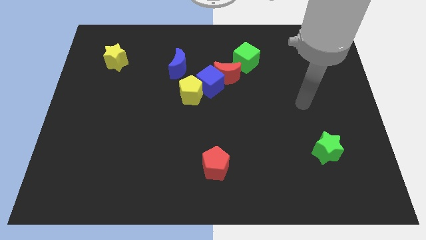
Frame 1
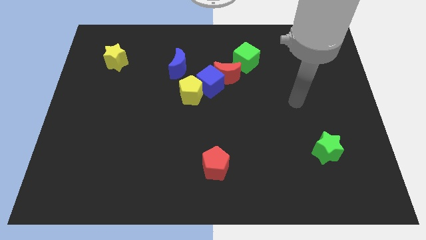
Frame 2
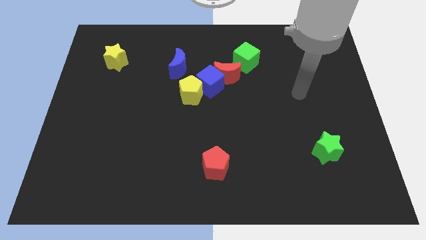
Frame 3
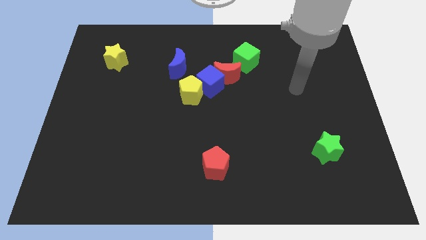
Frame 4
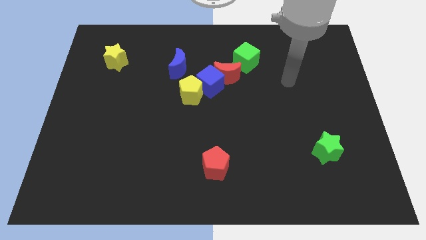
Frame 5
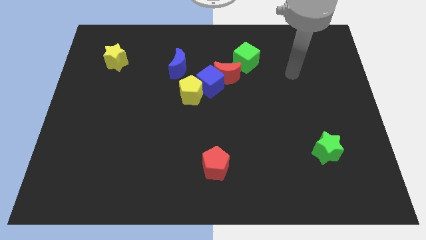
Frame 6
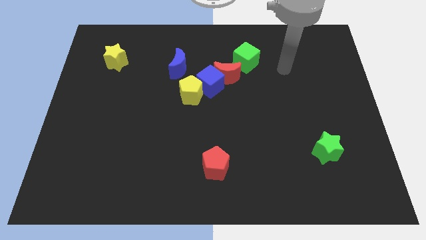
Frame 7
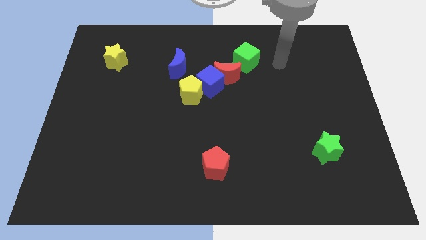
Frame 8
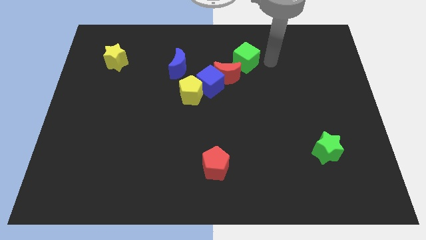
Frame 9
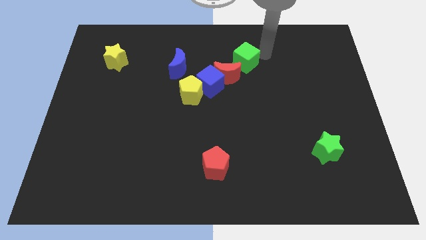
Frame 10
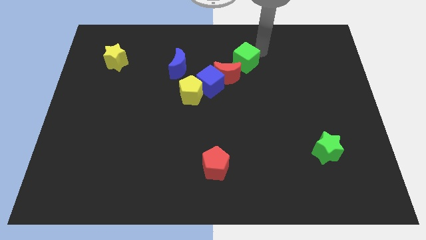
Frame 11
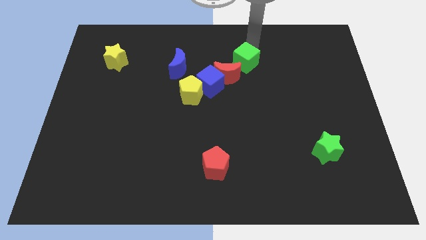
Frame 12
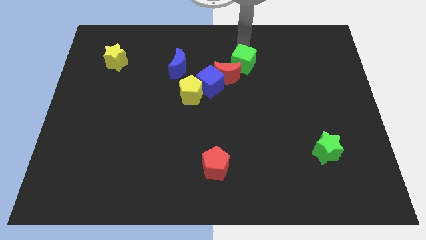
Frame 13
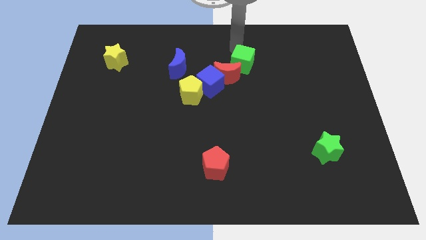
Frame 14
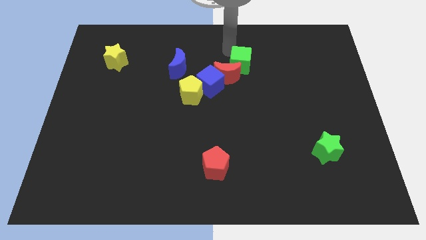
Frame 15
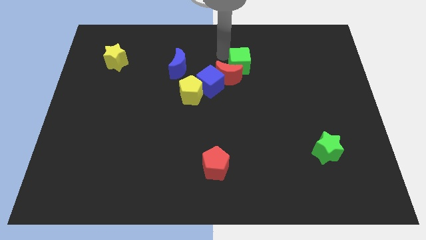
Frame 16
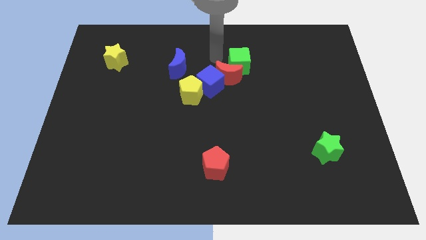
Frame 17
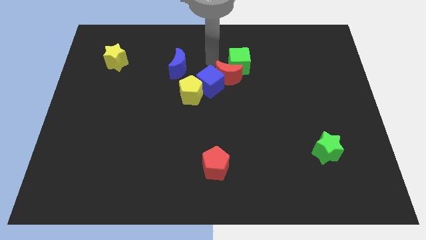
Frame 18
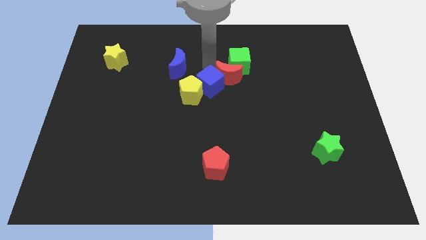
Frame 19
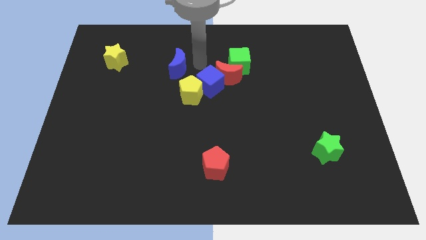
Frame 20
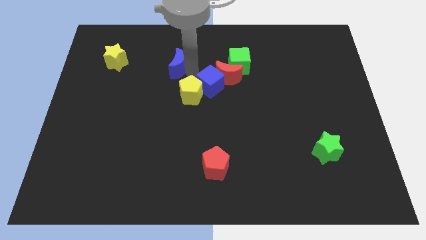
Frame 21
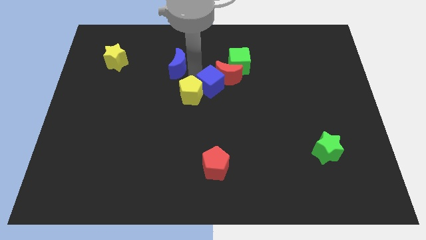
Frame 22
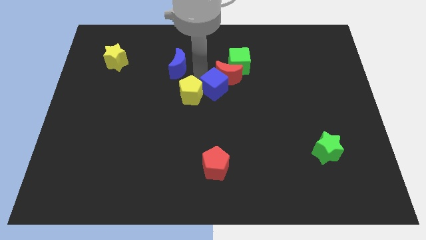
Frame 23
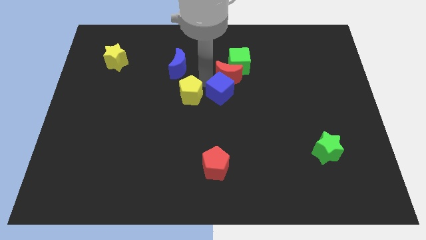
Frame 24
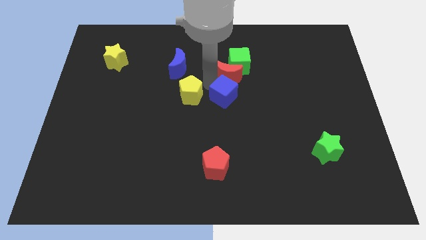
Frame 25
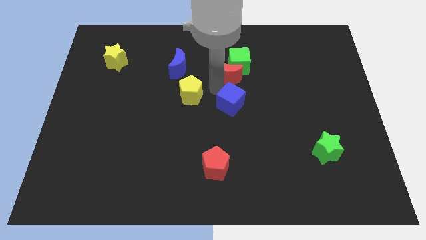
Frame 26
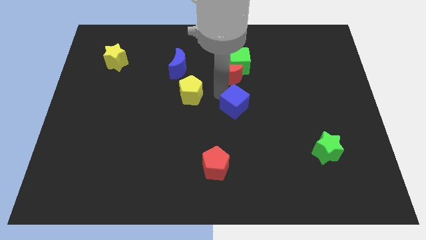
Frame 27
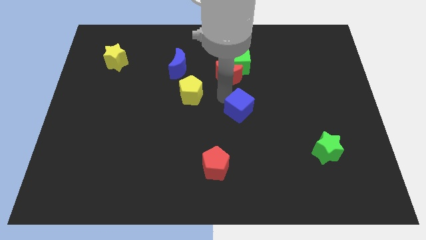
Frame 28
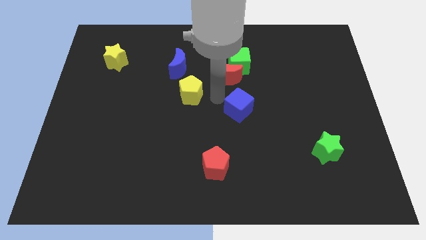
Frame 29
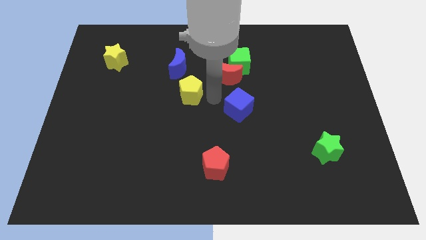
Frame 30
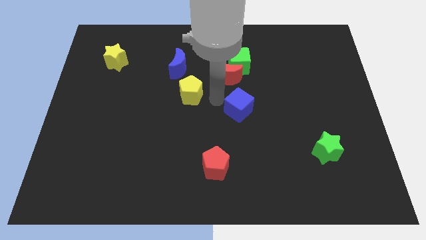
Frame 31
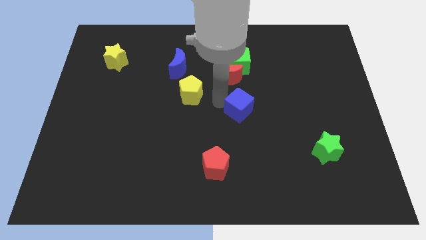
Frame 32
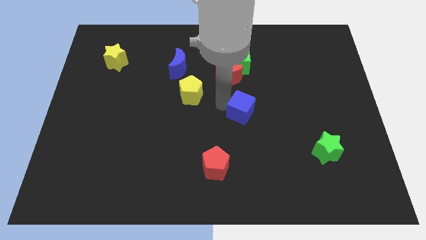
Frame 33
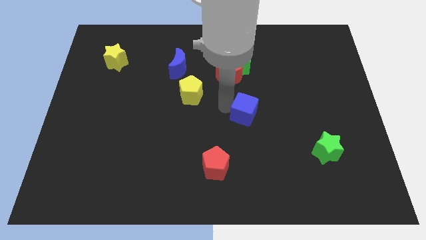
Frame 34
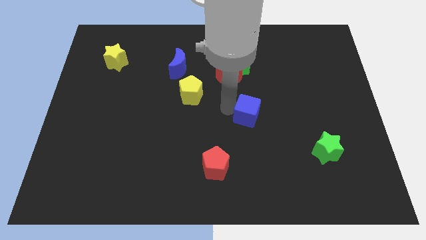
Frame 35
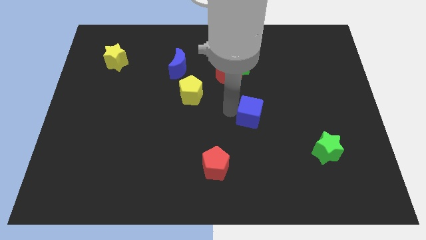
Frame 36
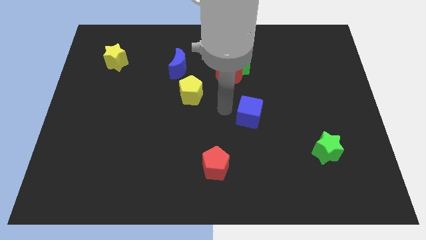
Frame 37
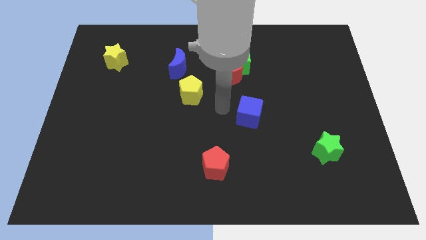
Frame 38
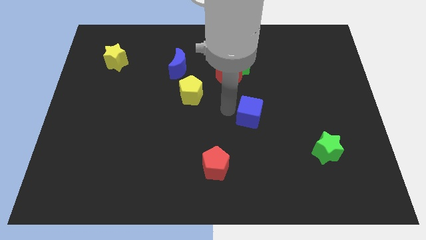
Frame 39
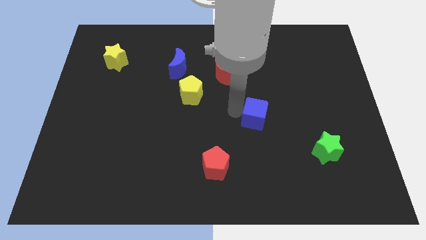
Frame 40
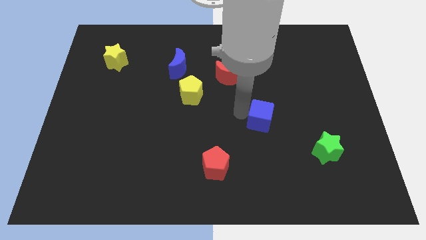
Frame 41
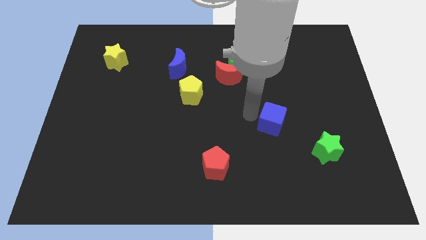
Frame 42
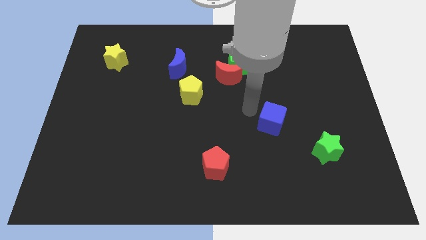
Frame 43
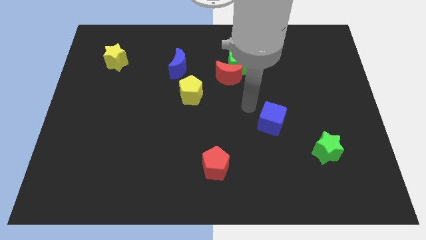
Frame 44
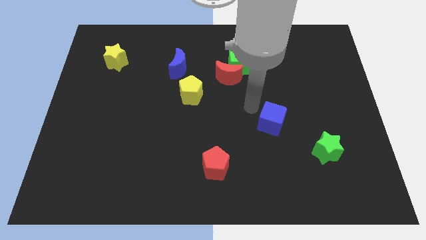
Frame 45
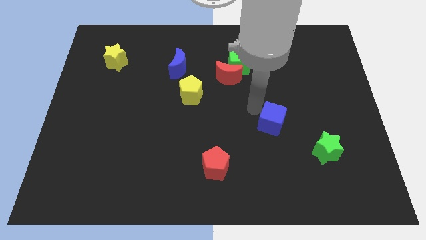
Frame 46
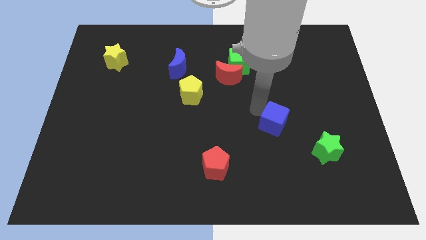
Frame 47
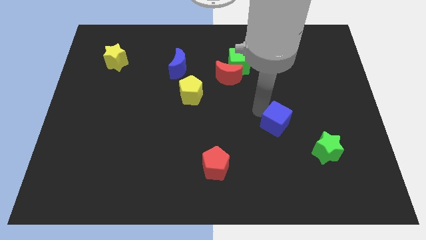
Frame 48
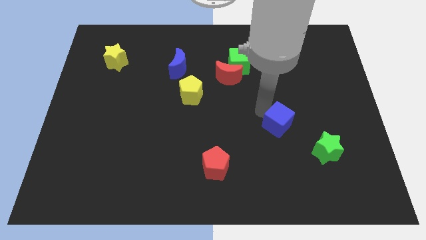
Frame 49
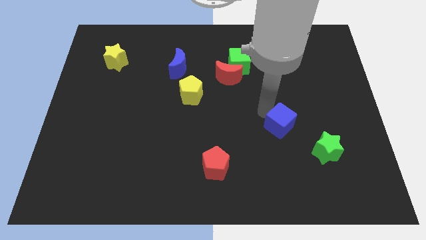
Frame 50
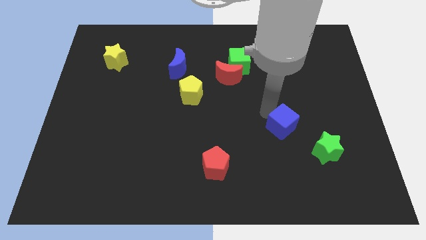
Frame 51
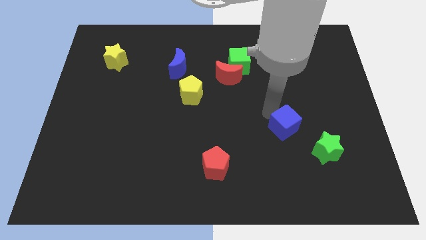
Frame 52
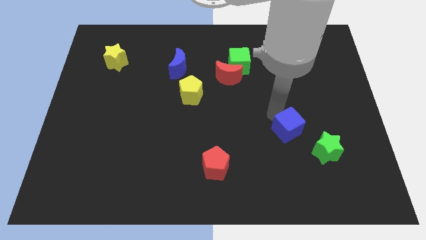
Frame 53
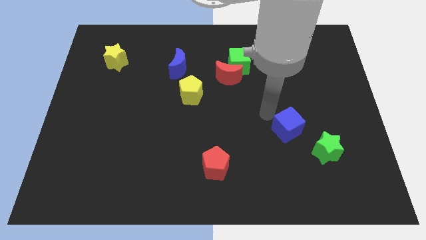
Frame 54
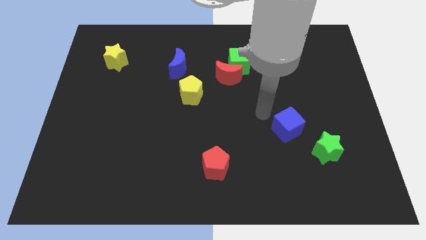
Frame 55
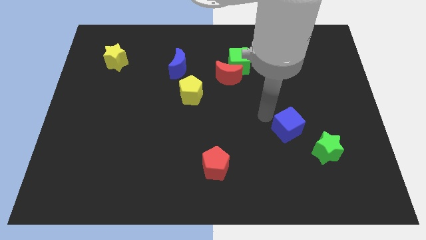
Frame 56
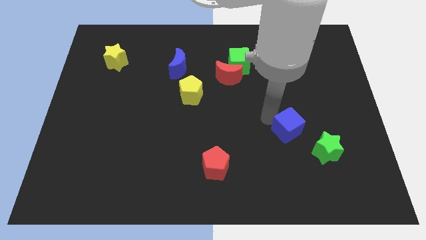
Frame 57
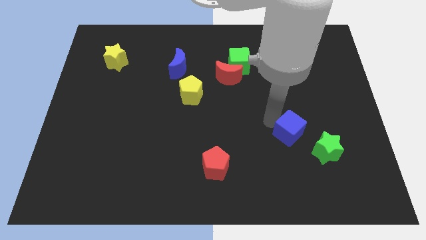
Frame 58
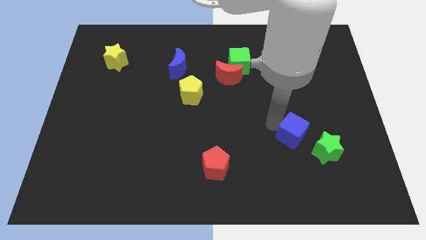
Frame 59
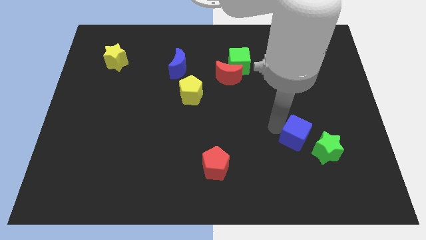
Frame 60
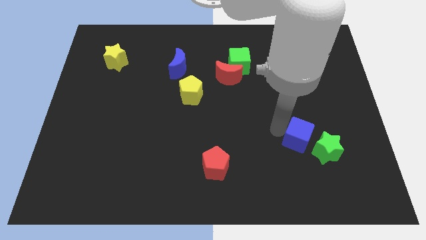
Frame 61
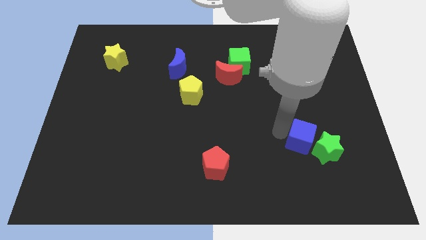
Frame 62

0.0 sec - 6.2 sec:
slide the blue cube next to the green star

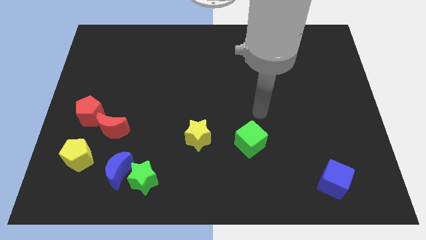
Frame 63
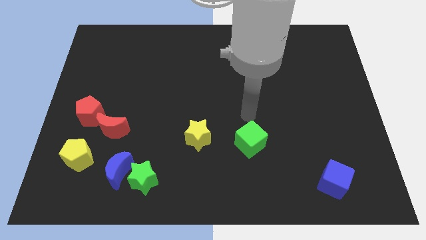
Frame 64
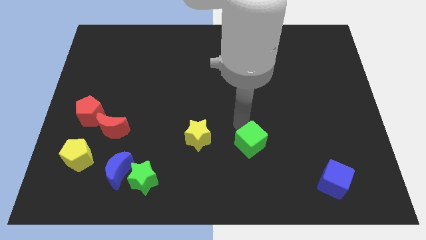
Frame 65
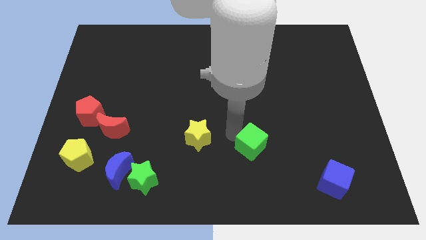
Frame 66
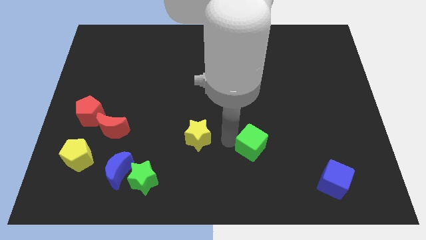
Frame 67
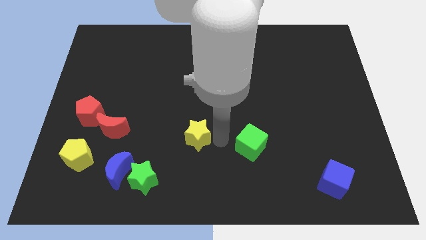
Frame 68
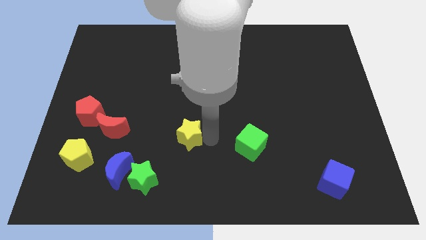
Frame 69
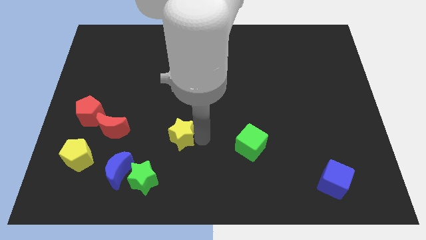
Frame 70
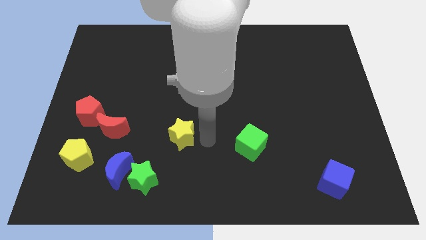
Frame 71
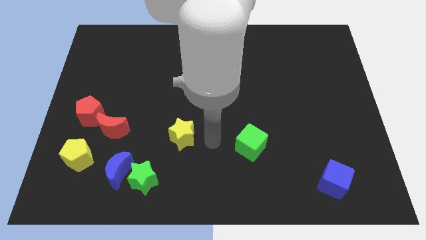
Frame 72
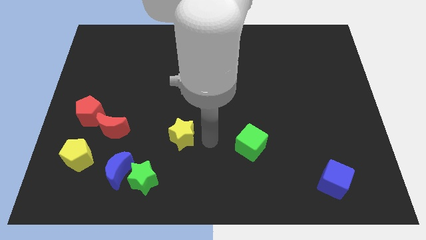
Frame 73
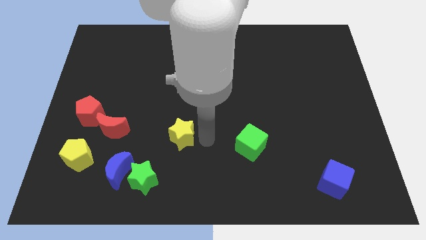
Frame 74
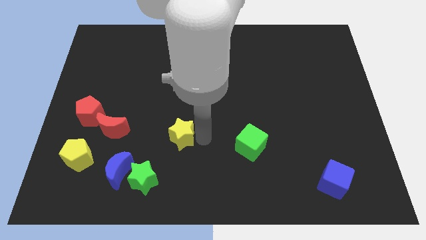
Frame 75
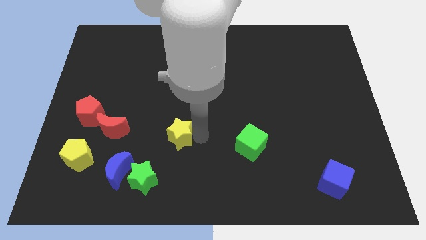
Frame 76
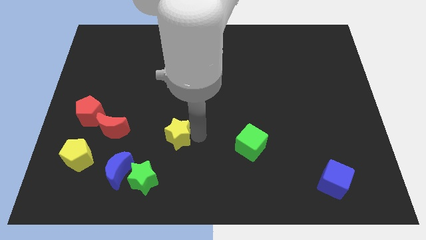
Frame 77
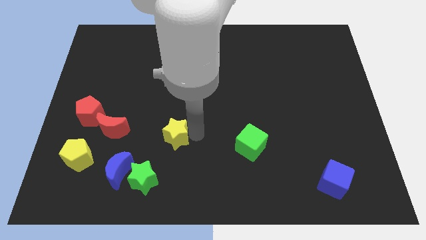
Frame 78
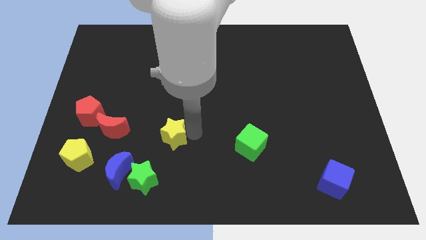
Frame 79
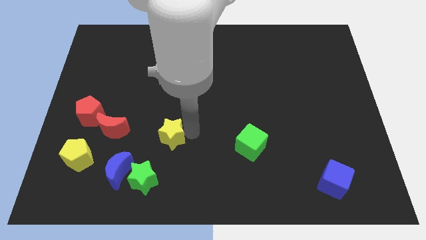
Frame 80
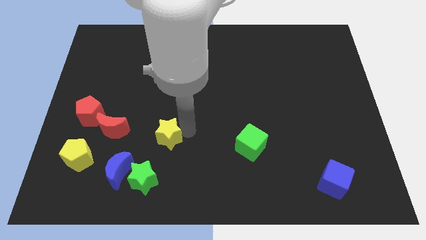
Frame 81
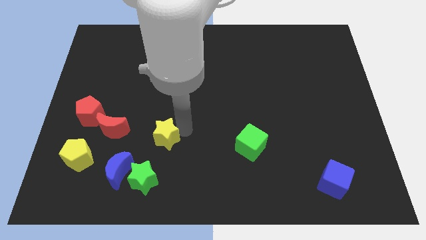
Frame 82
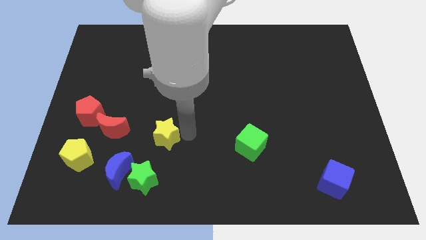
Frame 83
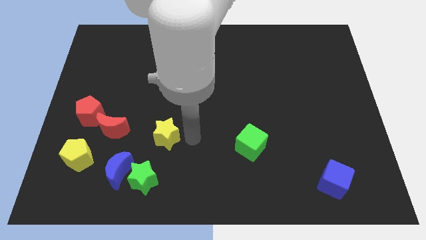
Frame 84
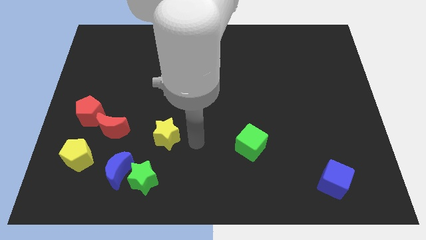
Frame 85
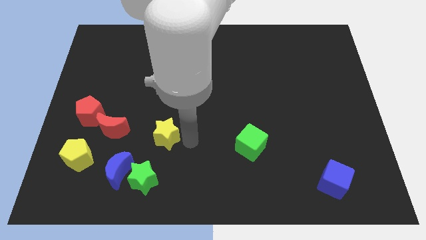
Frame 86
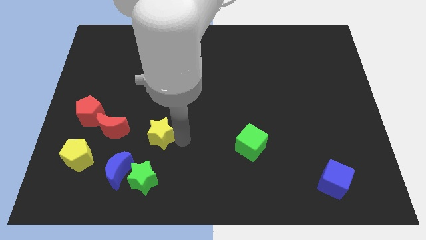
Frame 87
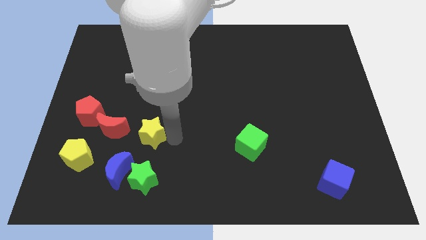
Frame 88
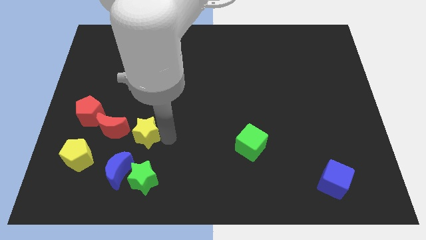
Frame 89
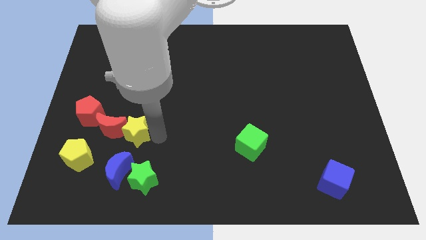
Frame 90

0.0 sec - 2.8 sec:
move the yellow star to the red moon
